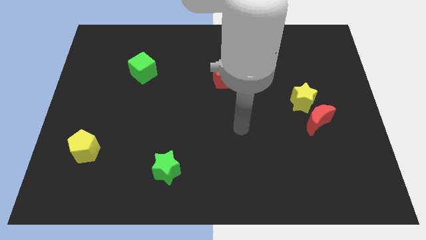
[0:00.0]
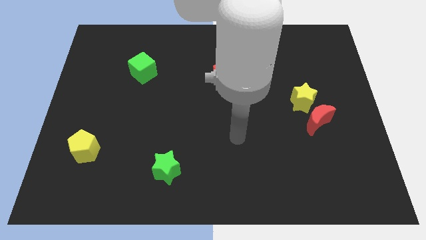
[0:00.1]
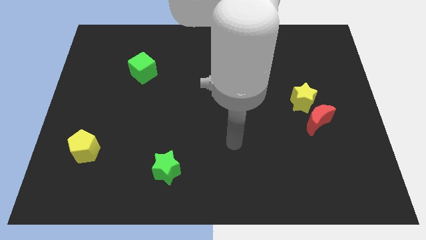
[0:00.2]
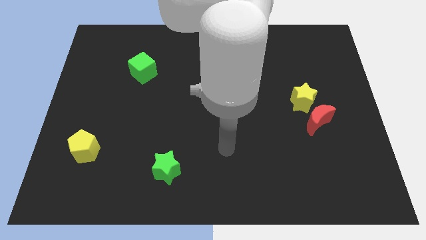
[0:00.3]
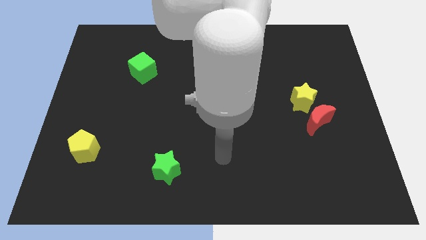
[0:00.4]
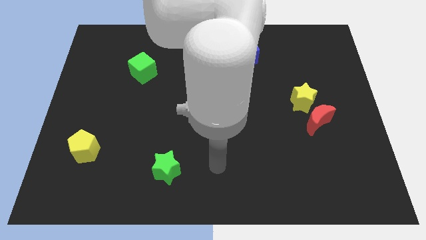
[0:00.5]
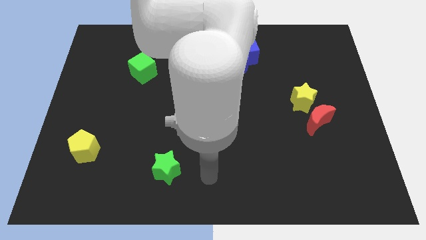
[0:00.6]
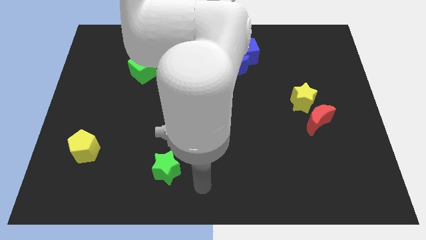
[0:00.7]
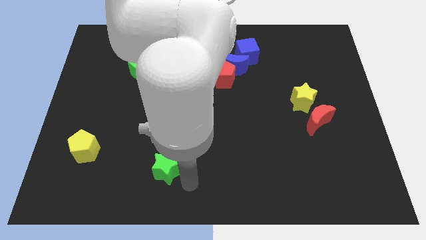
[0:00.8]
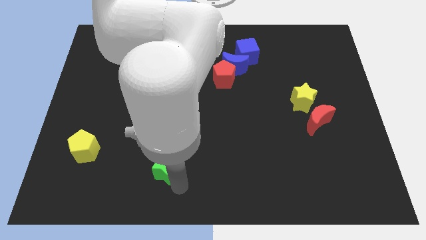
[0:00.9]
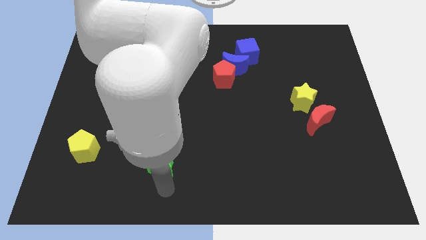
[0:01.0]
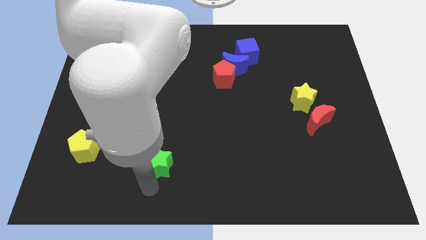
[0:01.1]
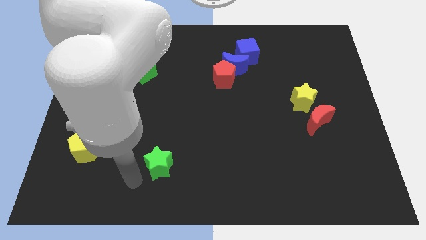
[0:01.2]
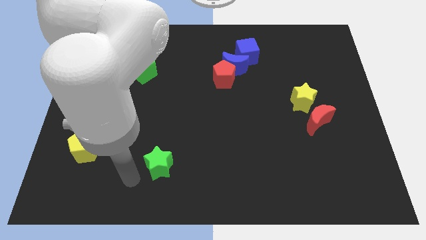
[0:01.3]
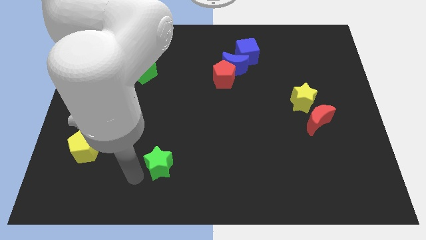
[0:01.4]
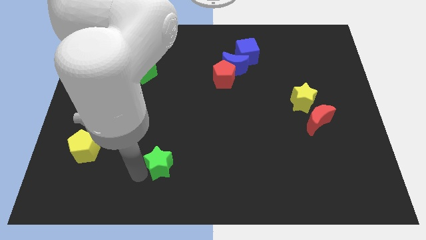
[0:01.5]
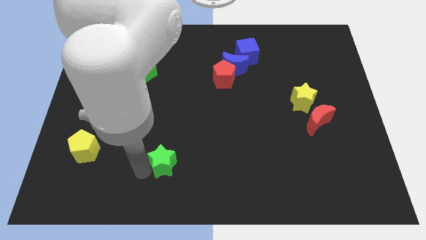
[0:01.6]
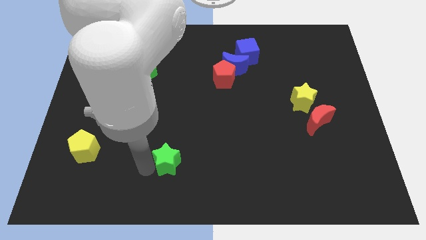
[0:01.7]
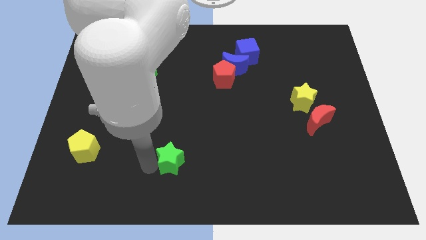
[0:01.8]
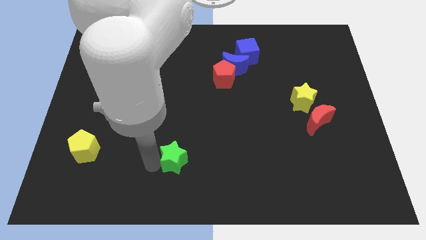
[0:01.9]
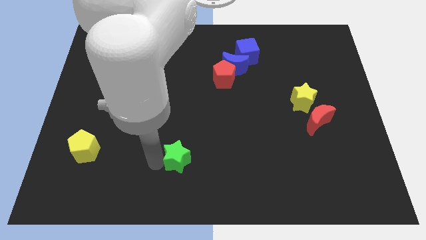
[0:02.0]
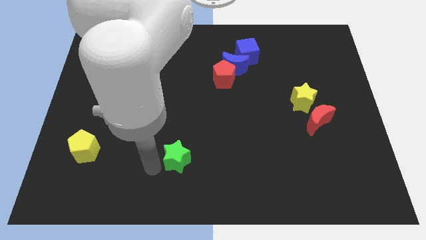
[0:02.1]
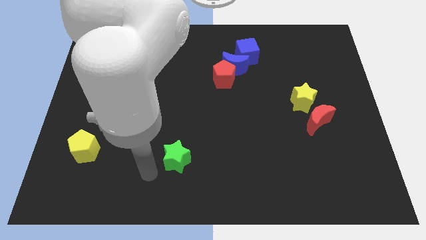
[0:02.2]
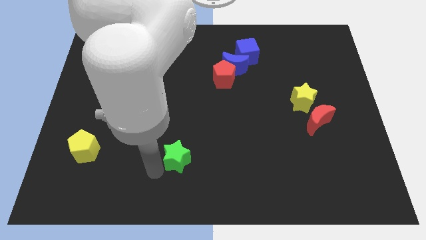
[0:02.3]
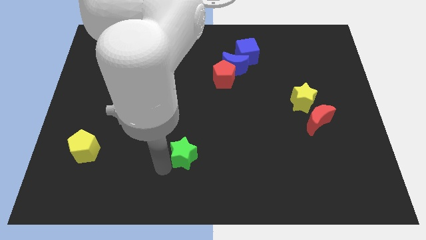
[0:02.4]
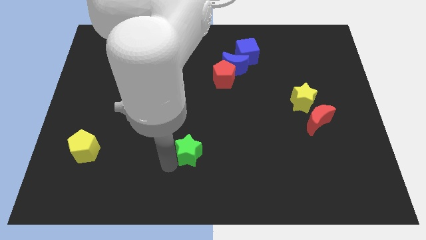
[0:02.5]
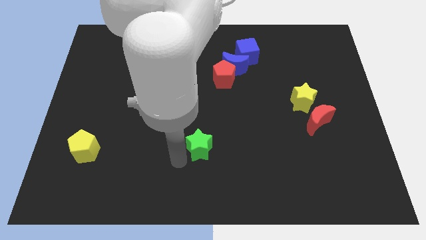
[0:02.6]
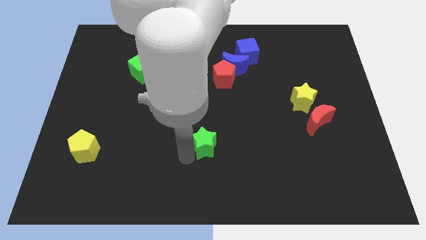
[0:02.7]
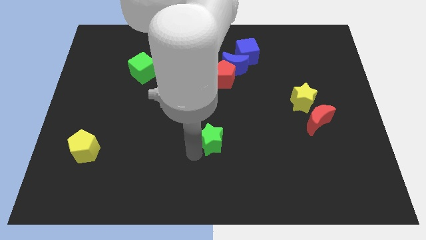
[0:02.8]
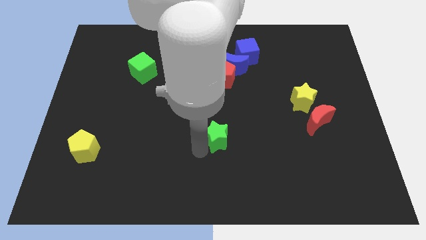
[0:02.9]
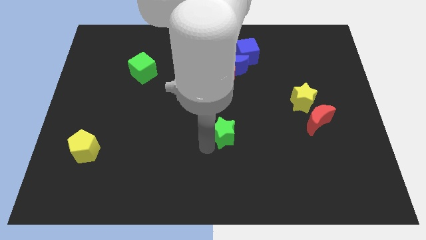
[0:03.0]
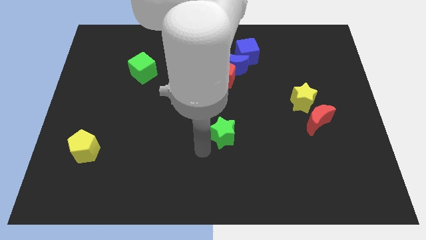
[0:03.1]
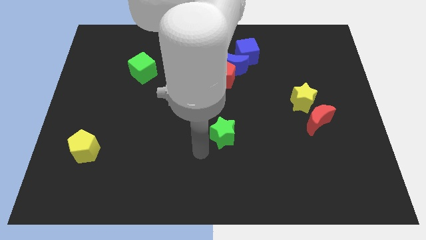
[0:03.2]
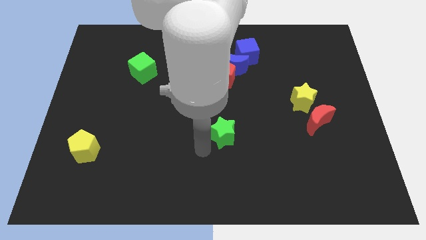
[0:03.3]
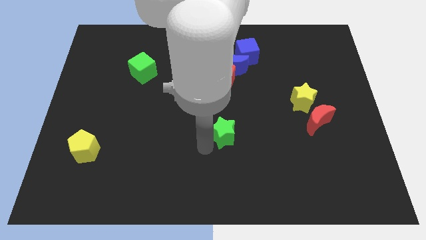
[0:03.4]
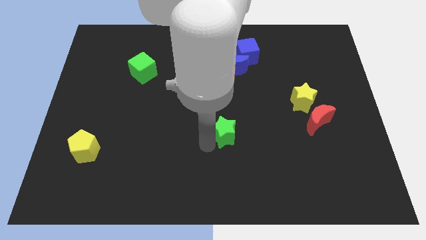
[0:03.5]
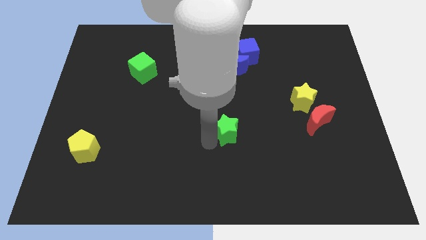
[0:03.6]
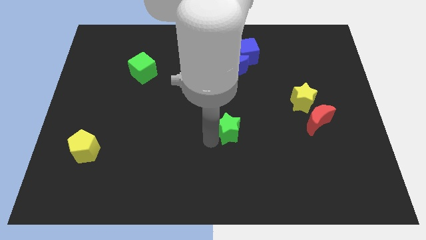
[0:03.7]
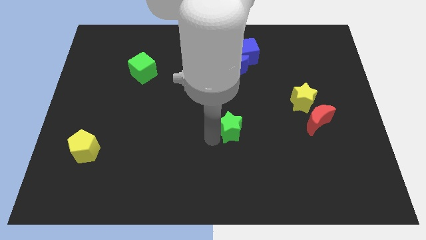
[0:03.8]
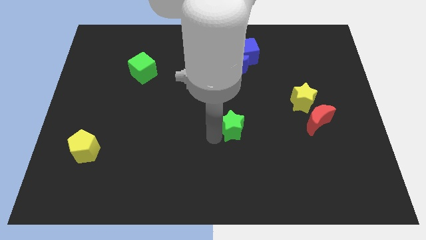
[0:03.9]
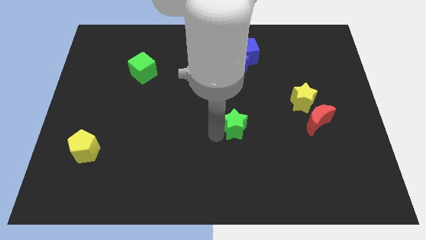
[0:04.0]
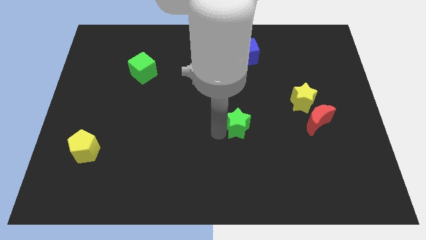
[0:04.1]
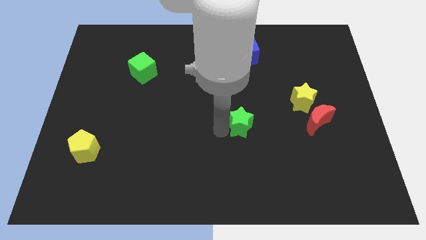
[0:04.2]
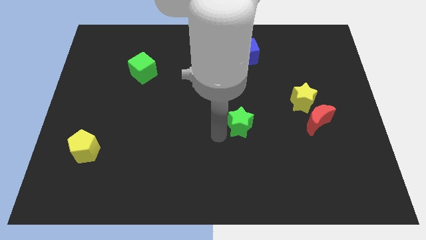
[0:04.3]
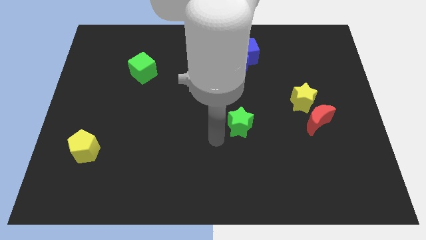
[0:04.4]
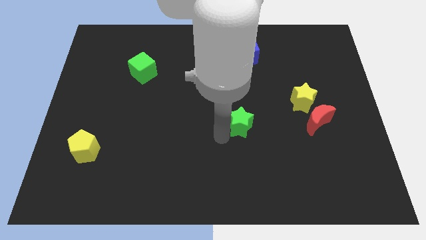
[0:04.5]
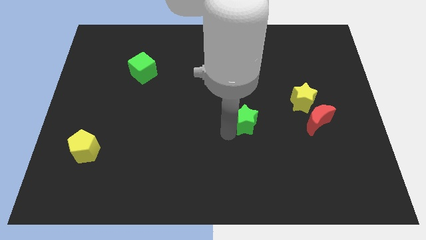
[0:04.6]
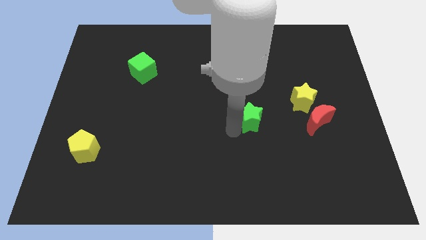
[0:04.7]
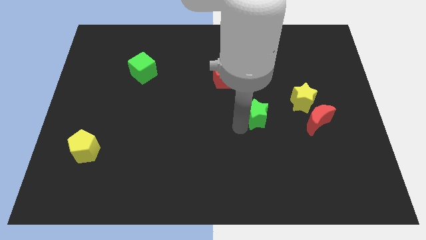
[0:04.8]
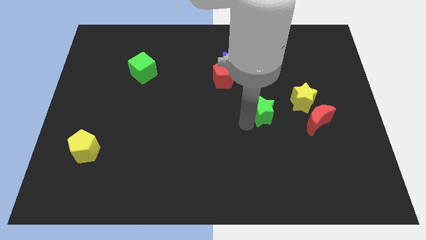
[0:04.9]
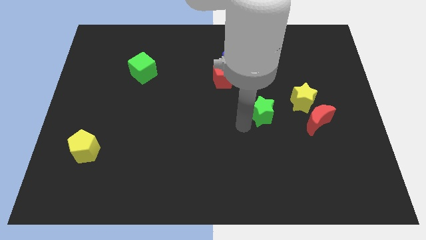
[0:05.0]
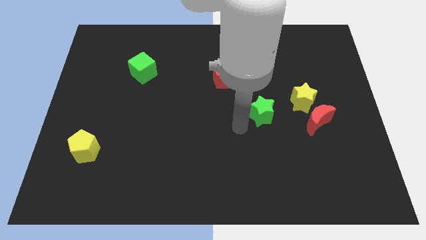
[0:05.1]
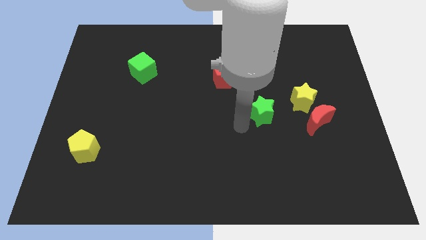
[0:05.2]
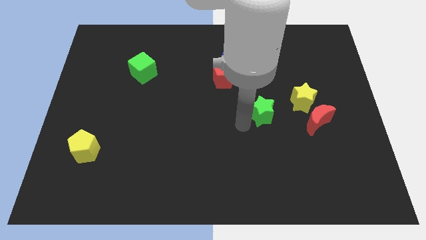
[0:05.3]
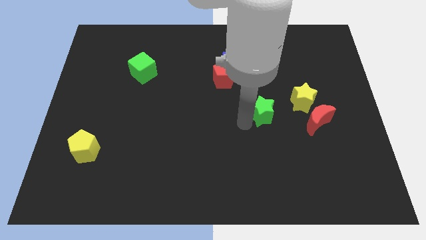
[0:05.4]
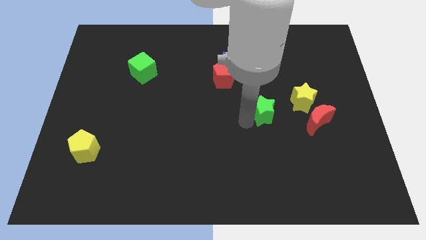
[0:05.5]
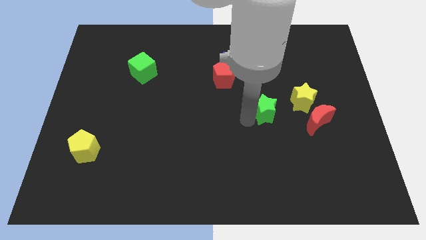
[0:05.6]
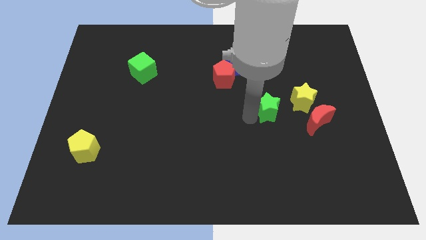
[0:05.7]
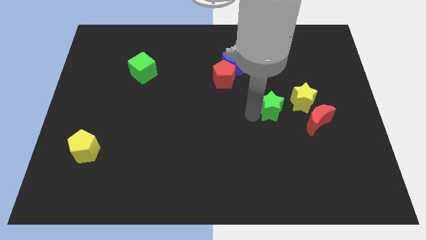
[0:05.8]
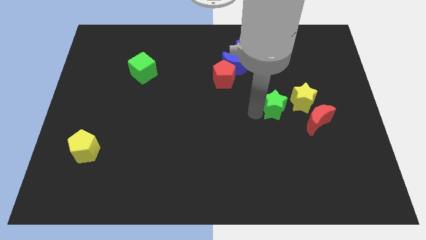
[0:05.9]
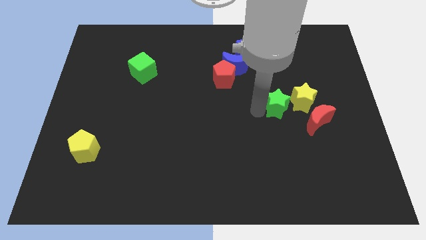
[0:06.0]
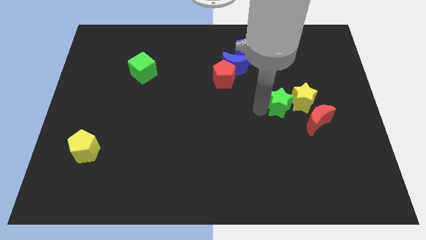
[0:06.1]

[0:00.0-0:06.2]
move the green star to the yellow star

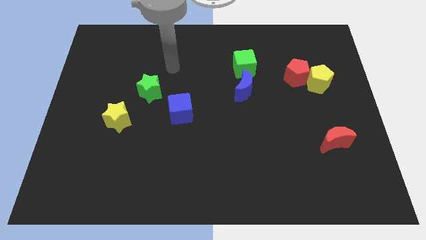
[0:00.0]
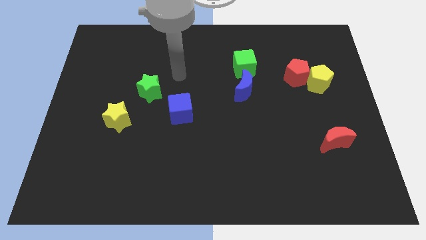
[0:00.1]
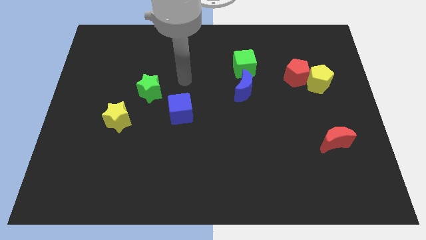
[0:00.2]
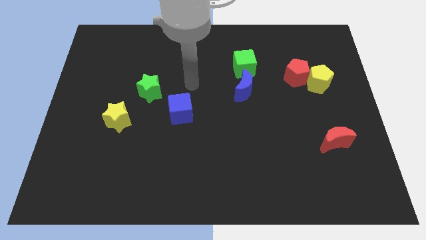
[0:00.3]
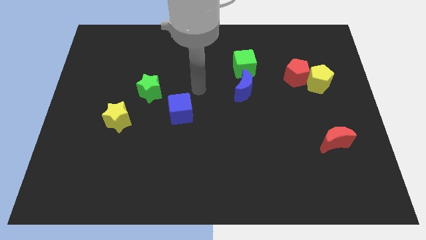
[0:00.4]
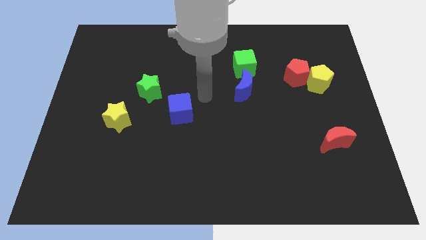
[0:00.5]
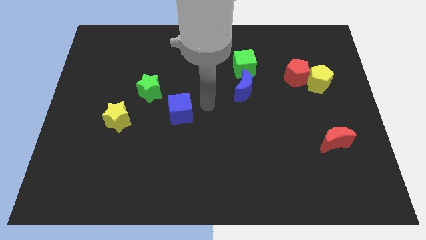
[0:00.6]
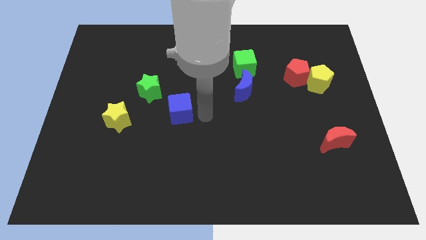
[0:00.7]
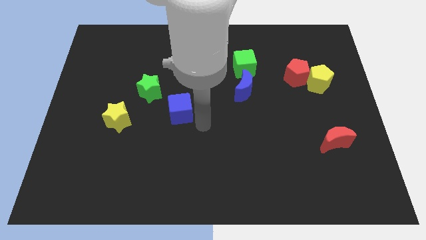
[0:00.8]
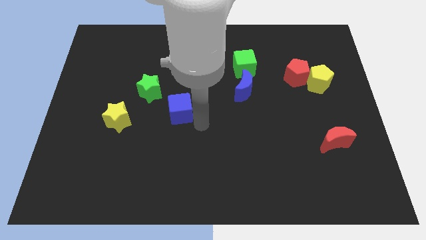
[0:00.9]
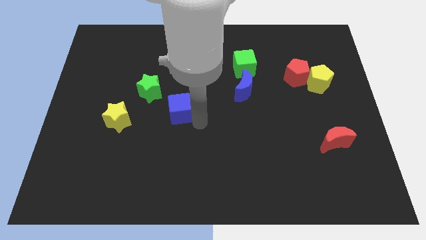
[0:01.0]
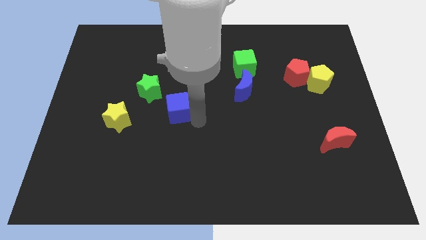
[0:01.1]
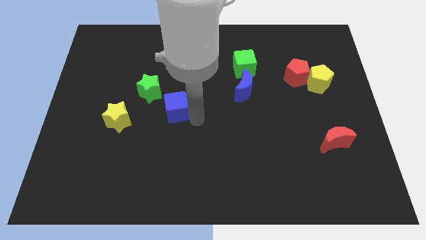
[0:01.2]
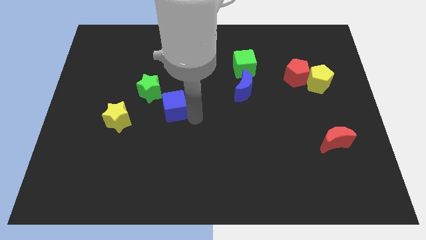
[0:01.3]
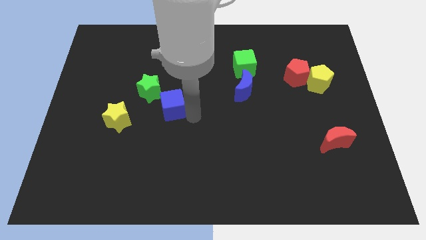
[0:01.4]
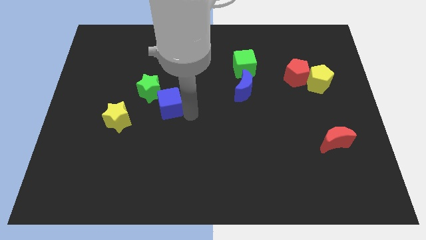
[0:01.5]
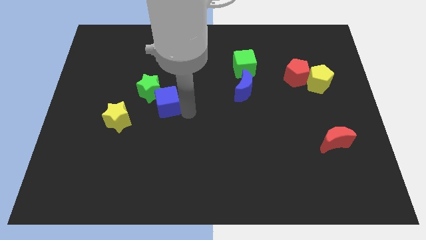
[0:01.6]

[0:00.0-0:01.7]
slide the blue cube close to the green star
